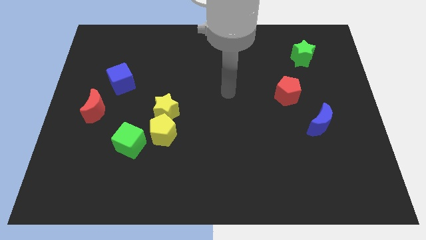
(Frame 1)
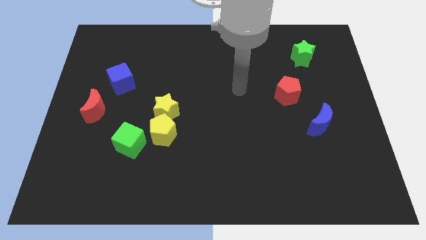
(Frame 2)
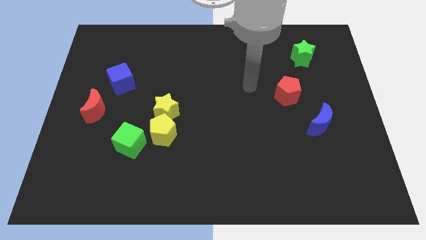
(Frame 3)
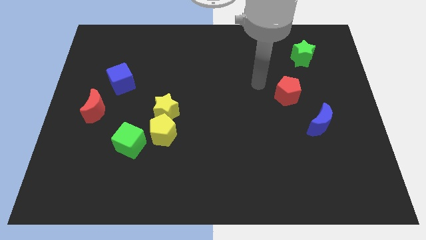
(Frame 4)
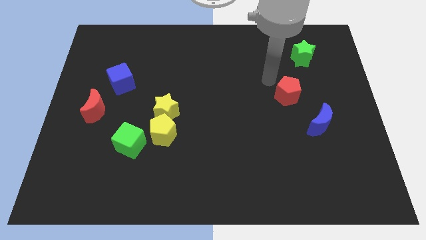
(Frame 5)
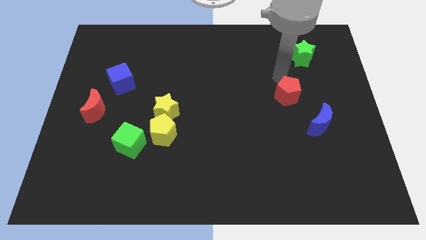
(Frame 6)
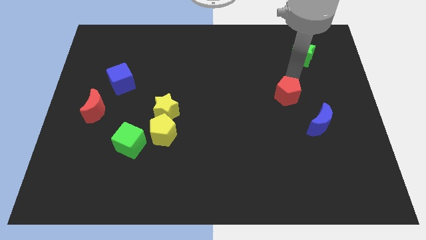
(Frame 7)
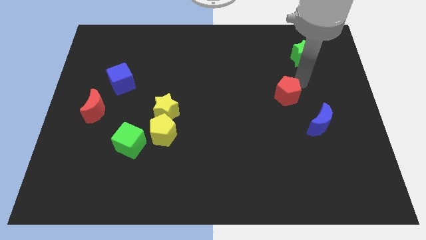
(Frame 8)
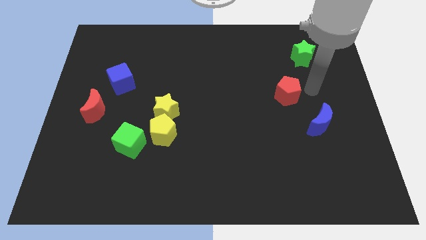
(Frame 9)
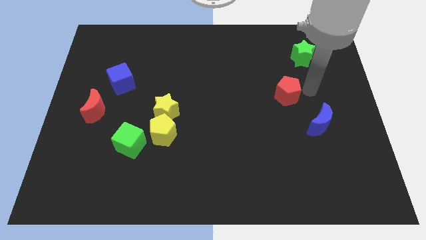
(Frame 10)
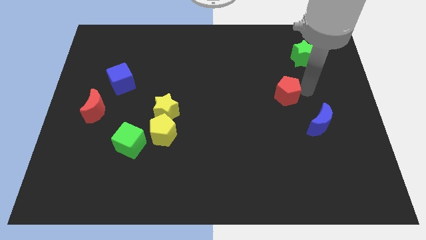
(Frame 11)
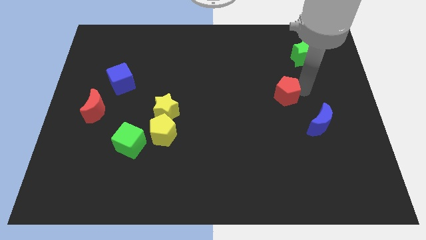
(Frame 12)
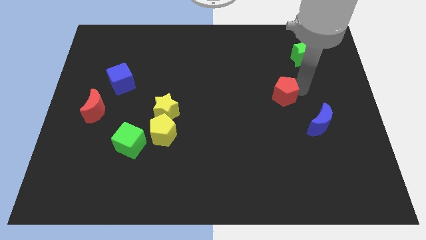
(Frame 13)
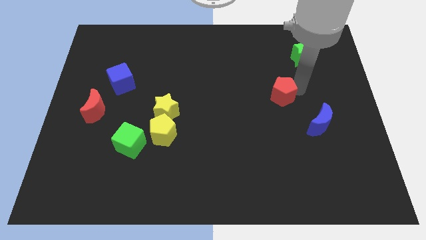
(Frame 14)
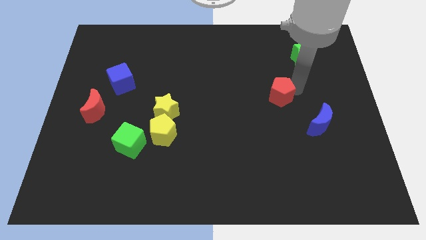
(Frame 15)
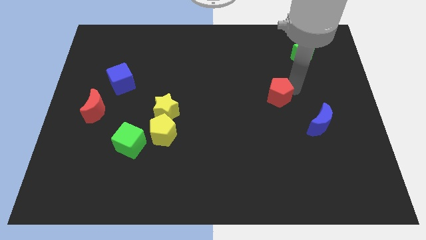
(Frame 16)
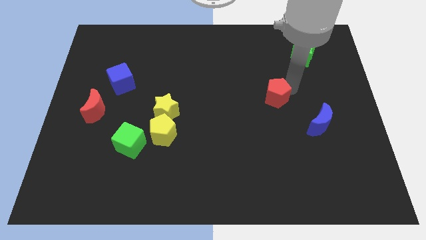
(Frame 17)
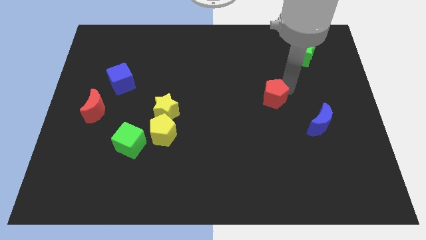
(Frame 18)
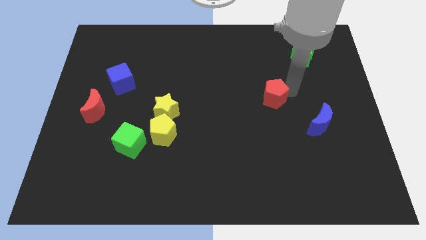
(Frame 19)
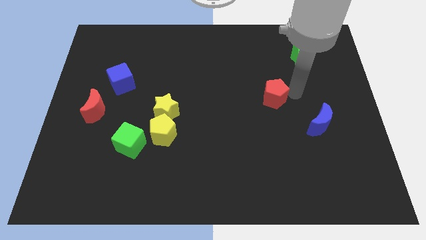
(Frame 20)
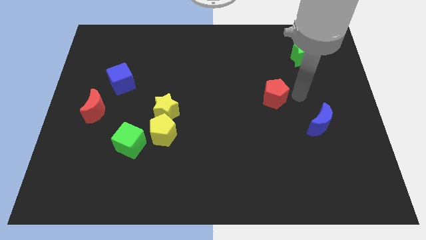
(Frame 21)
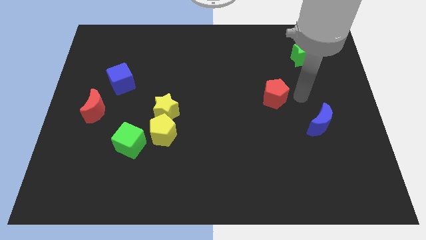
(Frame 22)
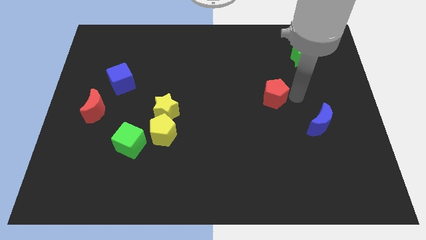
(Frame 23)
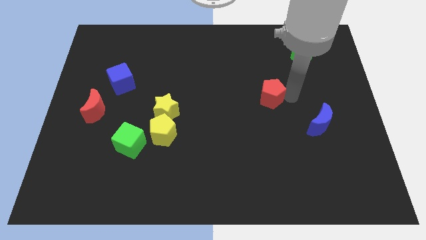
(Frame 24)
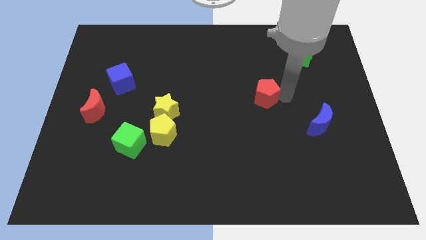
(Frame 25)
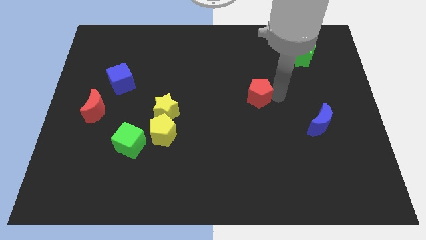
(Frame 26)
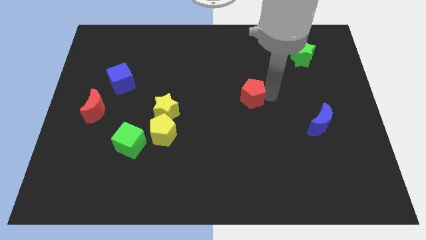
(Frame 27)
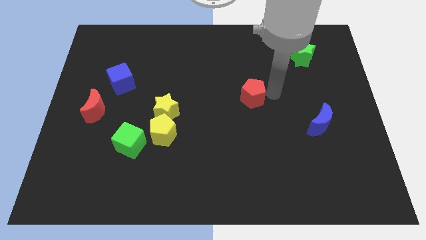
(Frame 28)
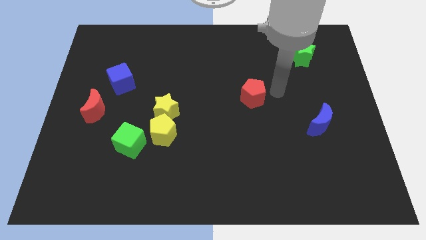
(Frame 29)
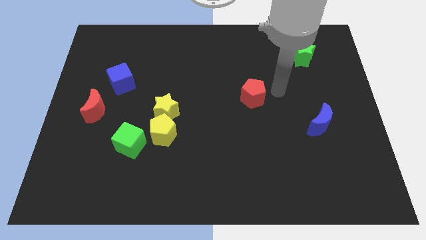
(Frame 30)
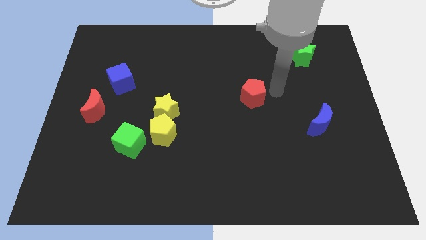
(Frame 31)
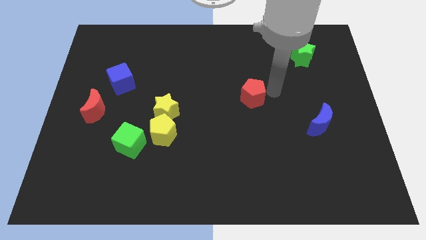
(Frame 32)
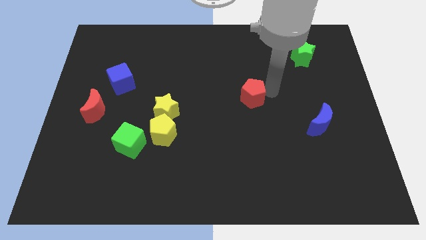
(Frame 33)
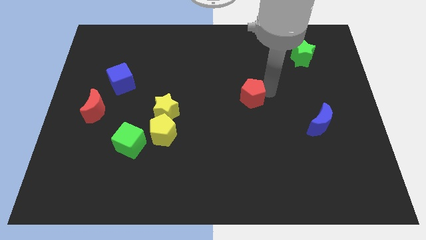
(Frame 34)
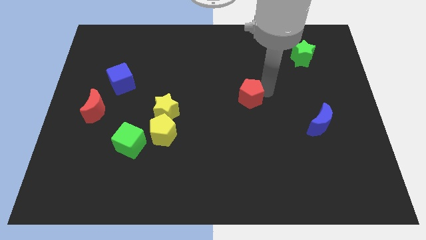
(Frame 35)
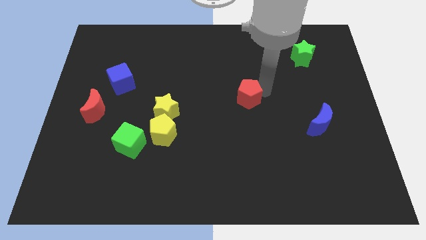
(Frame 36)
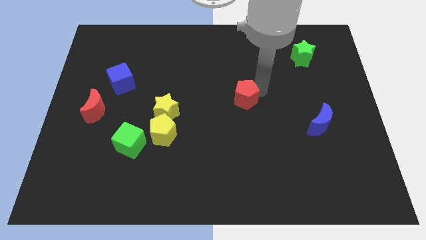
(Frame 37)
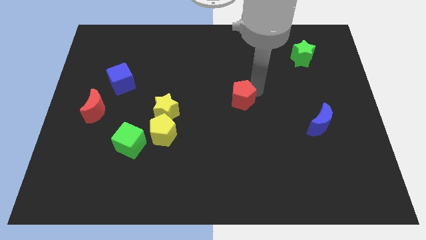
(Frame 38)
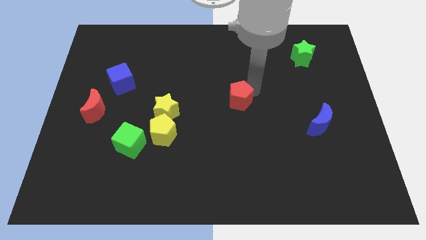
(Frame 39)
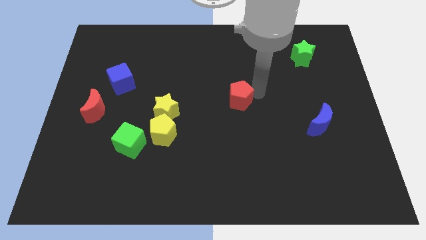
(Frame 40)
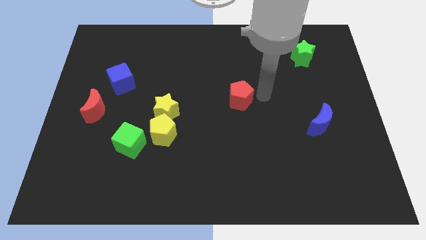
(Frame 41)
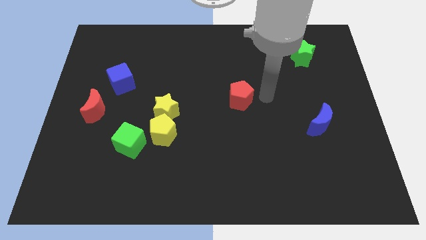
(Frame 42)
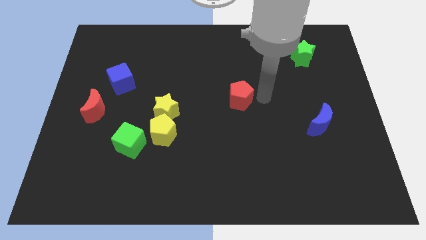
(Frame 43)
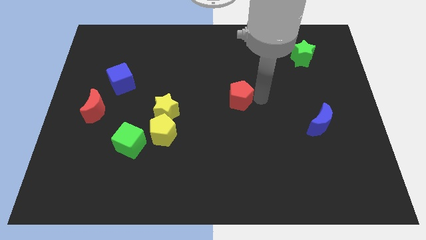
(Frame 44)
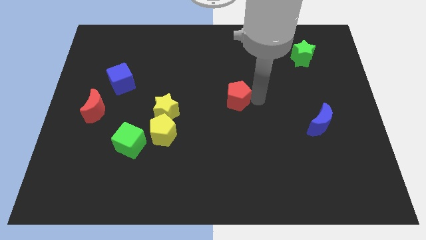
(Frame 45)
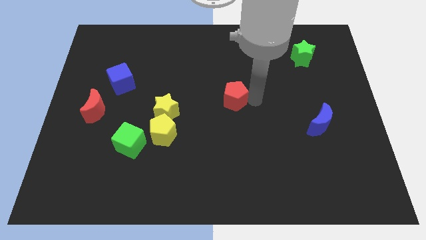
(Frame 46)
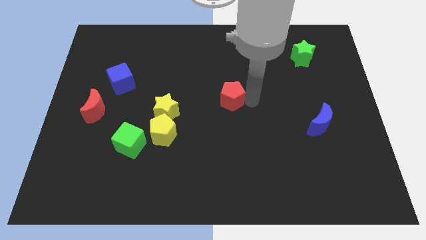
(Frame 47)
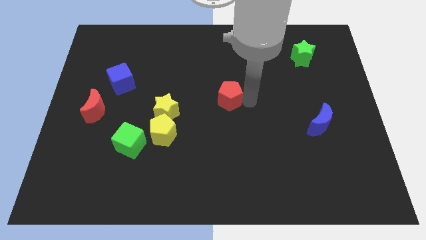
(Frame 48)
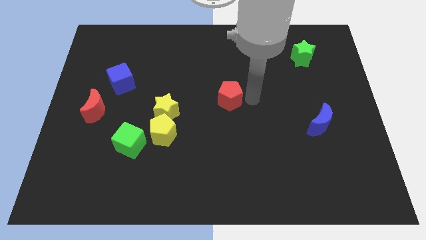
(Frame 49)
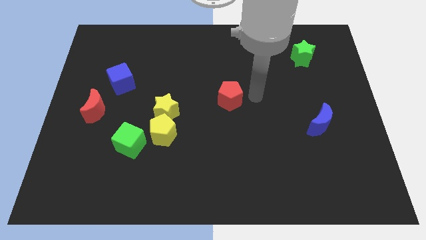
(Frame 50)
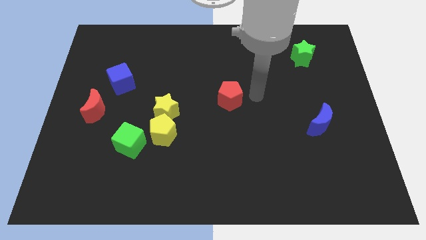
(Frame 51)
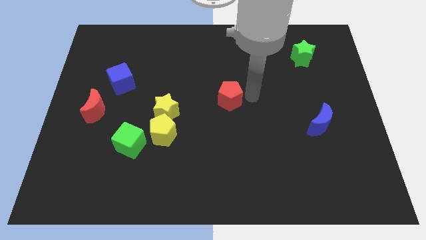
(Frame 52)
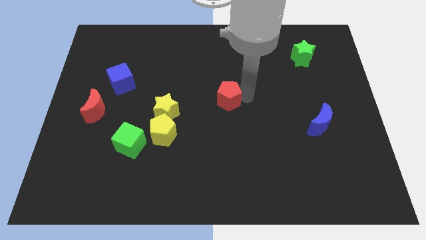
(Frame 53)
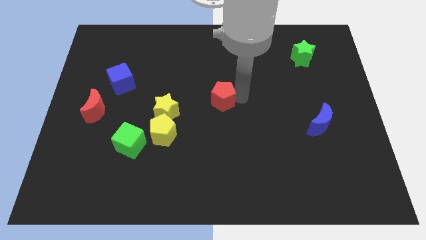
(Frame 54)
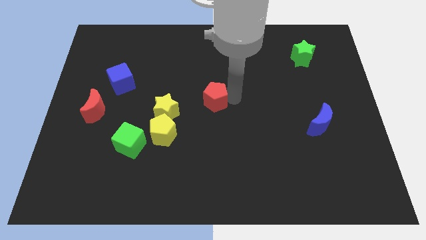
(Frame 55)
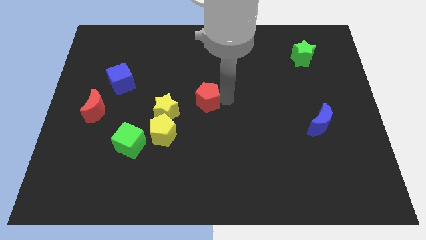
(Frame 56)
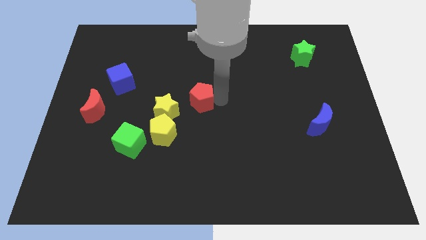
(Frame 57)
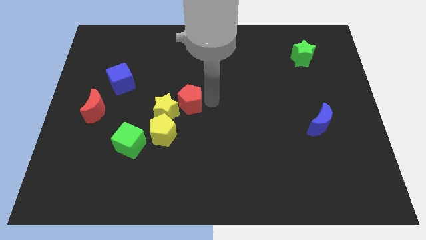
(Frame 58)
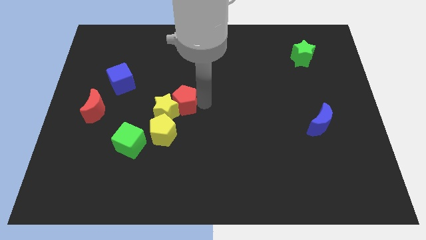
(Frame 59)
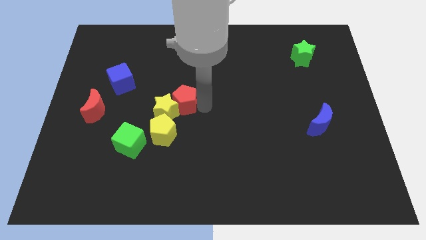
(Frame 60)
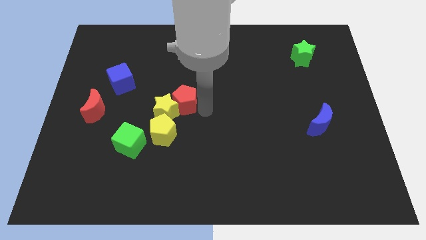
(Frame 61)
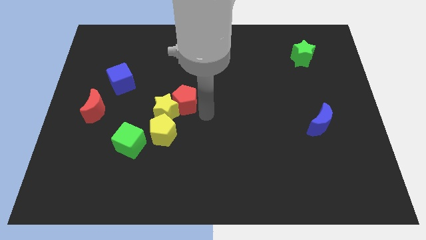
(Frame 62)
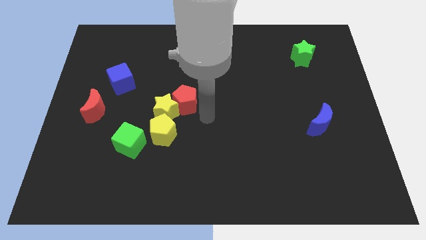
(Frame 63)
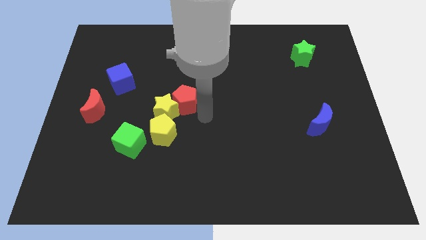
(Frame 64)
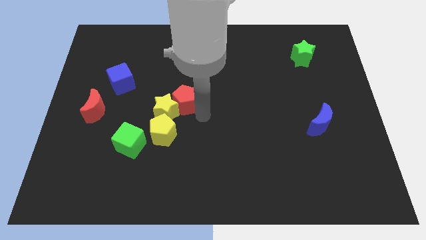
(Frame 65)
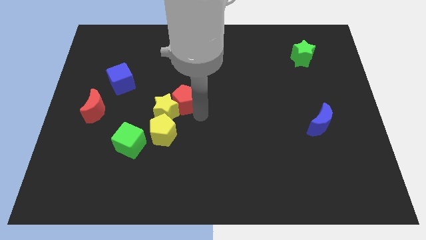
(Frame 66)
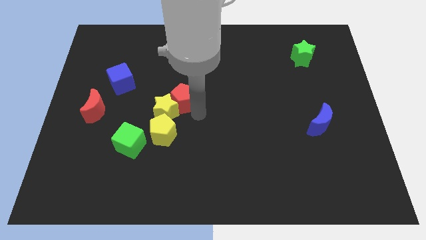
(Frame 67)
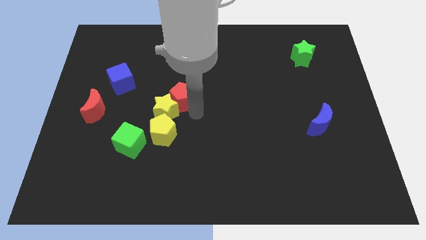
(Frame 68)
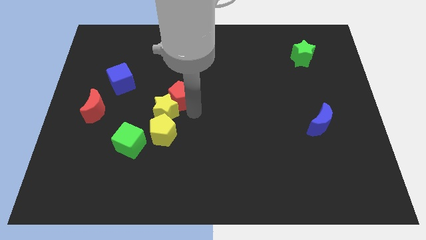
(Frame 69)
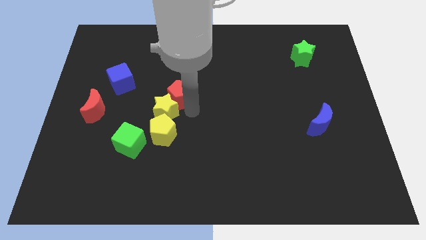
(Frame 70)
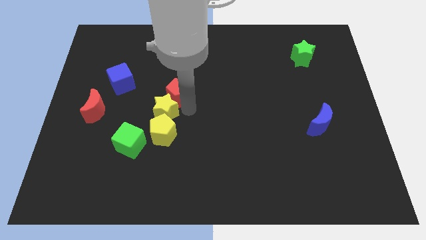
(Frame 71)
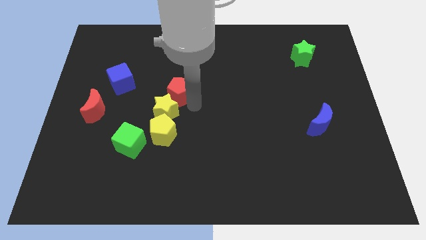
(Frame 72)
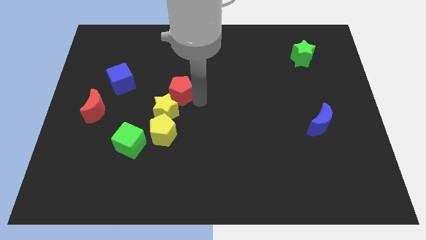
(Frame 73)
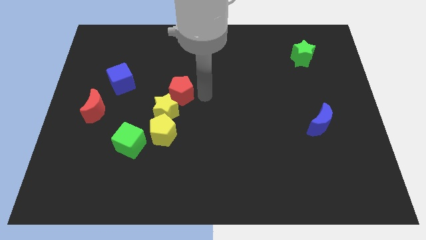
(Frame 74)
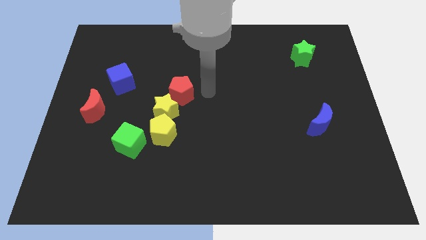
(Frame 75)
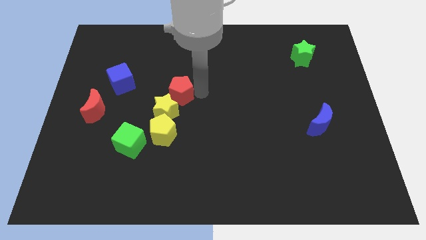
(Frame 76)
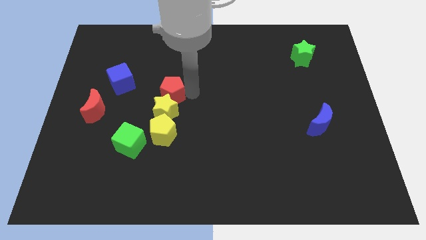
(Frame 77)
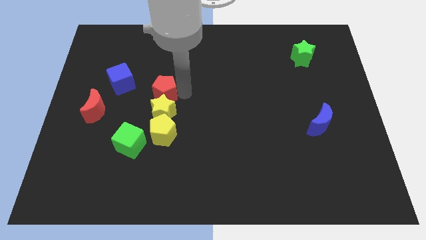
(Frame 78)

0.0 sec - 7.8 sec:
slide the red pentagon to the top left of the yellow star

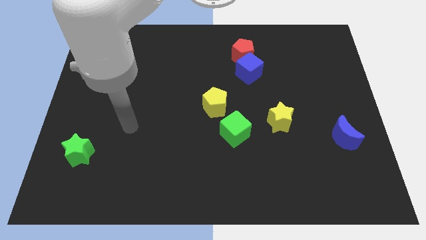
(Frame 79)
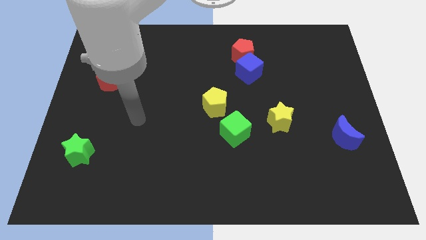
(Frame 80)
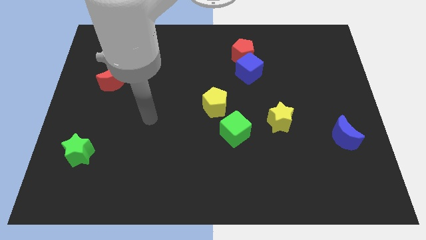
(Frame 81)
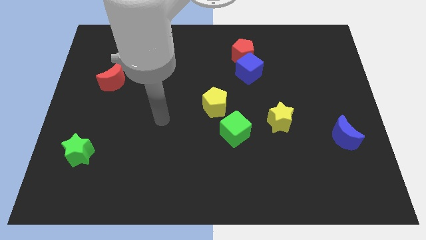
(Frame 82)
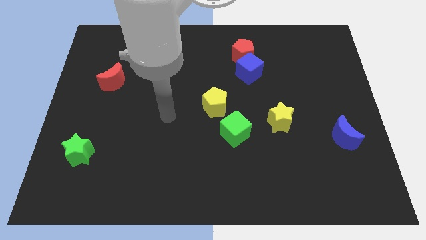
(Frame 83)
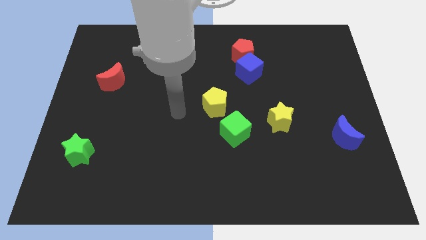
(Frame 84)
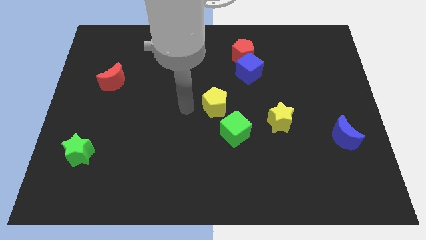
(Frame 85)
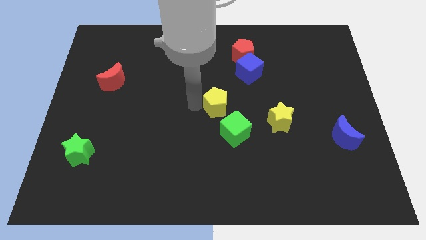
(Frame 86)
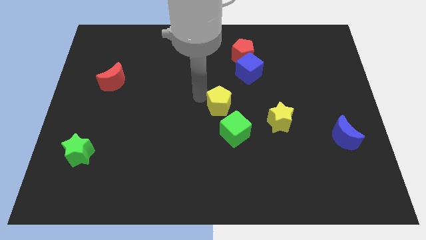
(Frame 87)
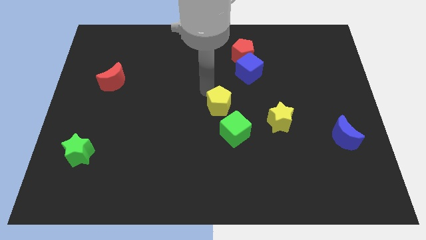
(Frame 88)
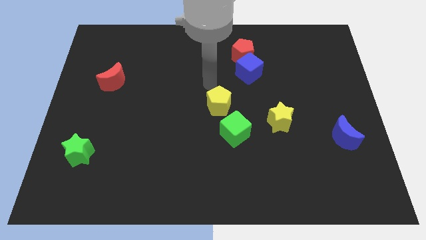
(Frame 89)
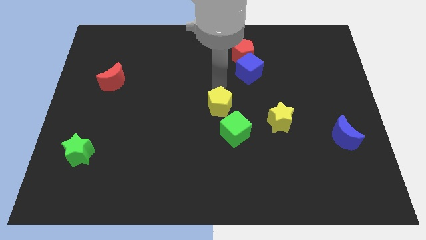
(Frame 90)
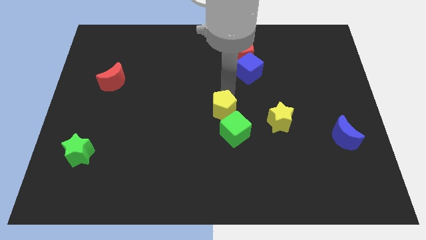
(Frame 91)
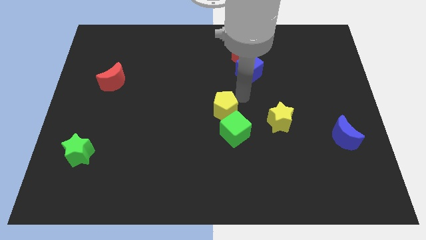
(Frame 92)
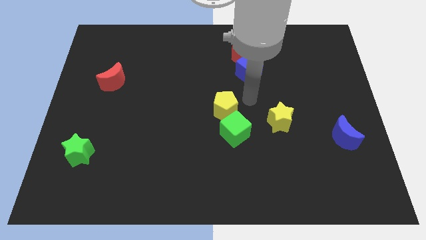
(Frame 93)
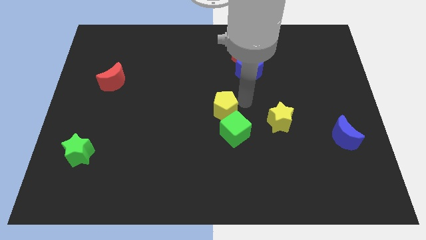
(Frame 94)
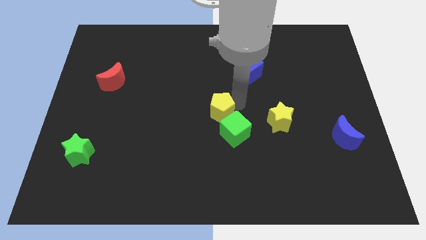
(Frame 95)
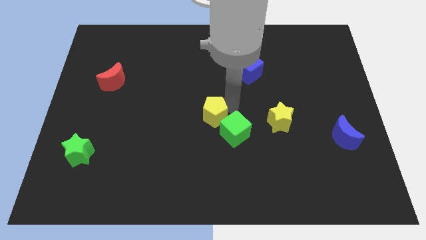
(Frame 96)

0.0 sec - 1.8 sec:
put the yellow pentagon just left of the green cube
